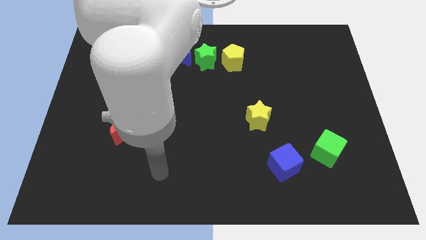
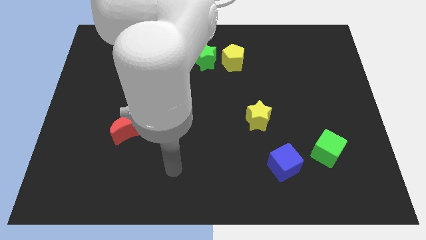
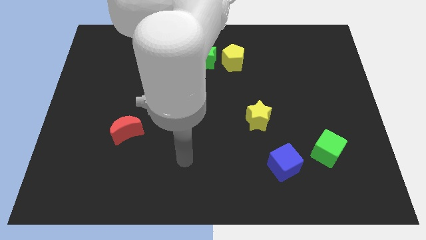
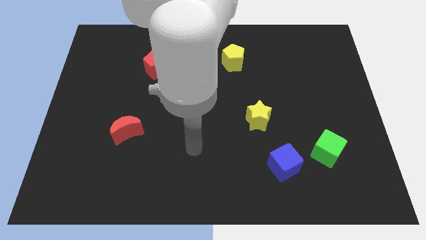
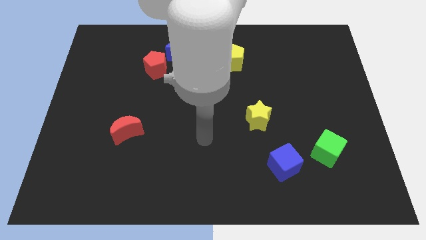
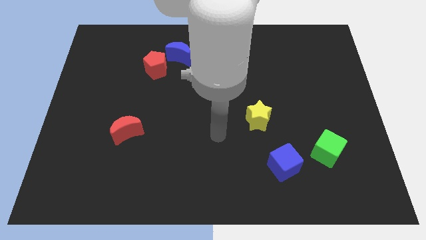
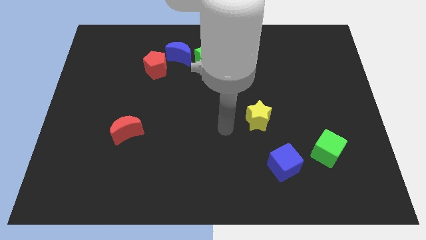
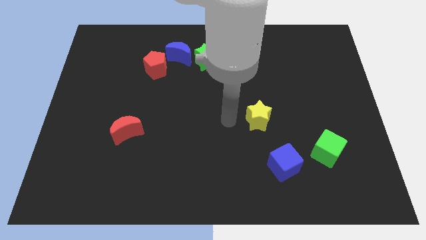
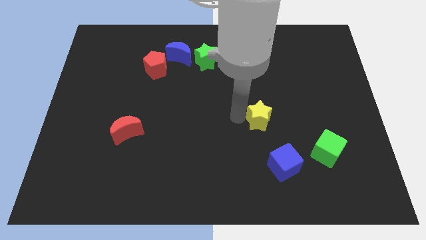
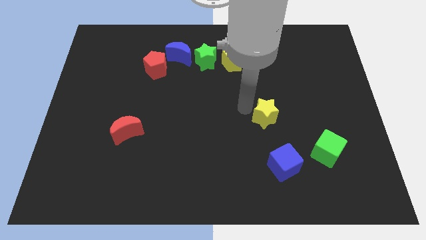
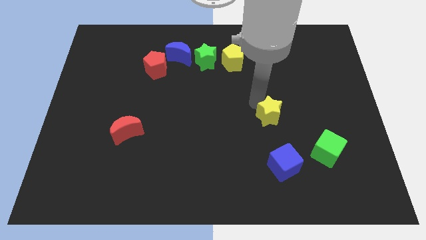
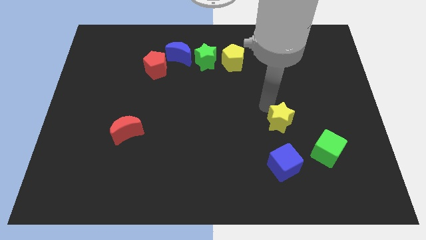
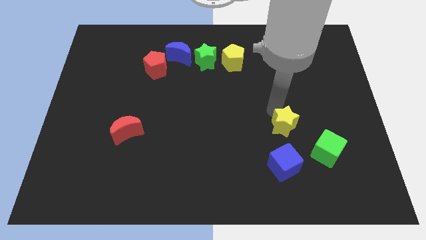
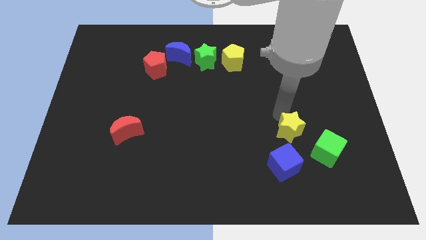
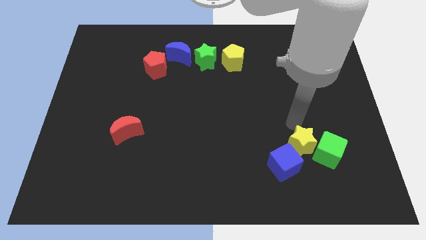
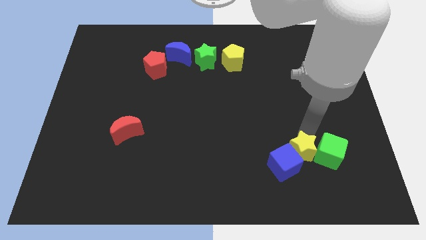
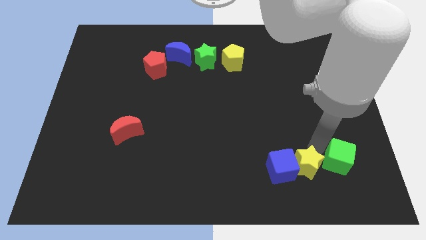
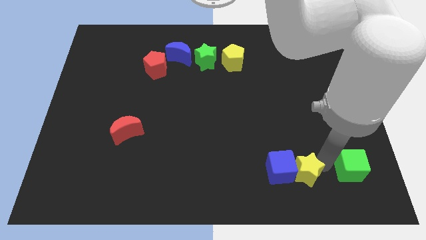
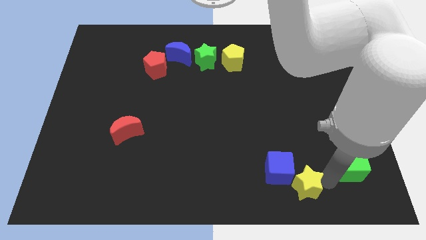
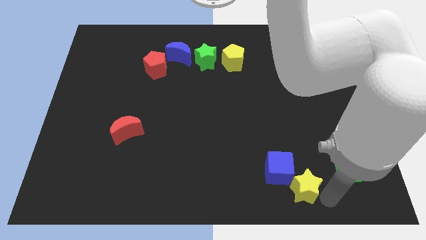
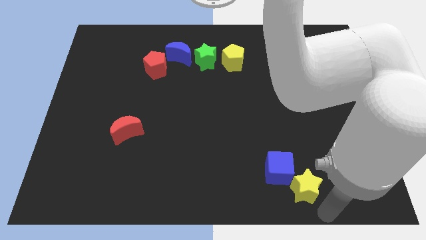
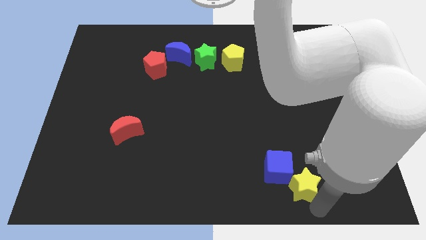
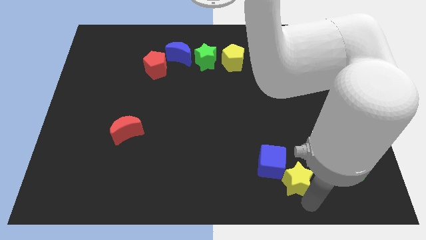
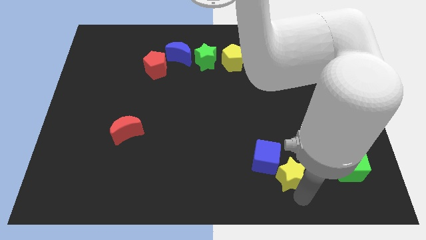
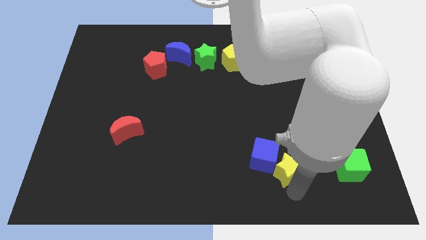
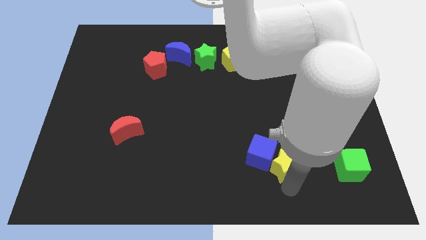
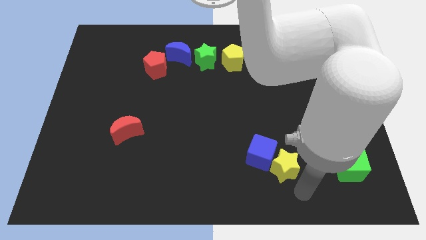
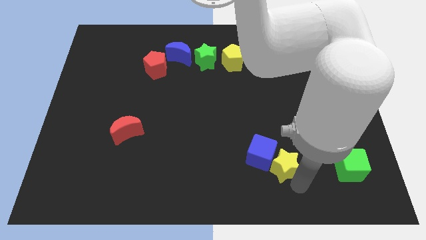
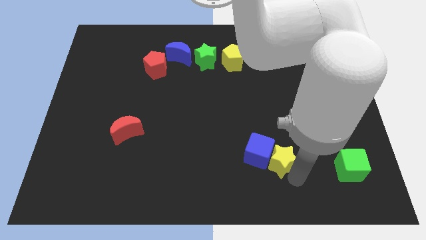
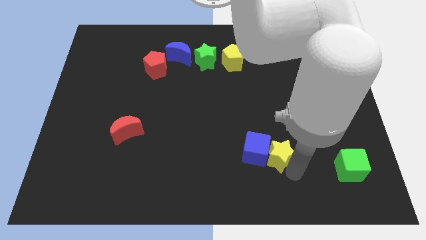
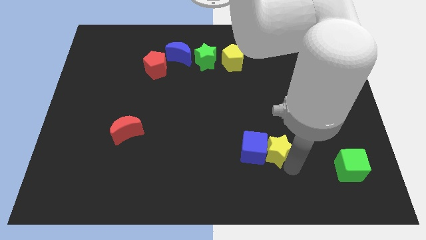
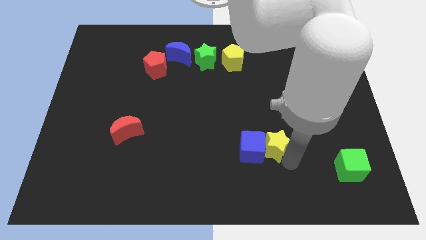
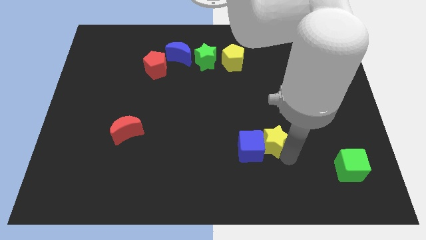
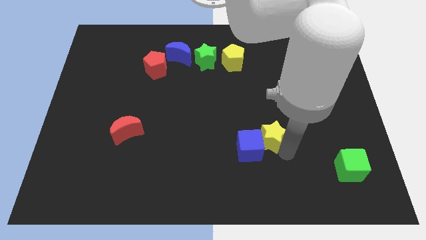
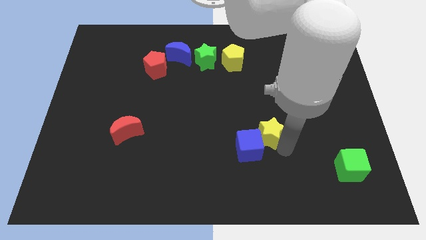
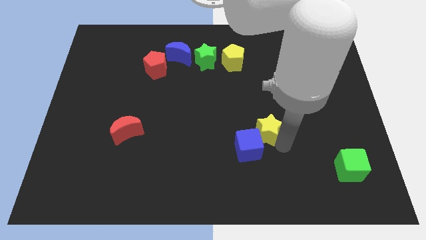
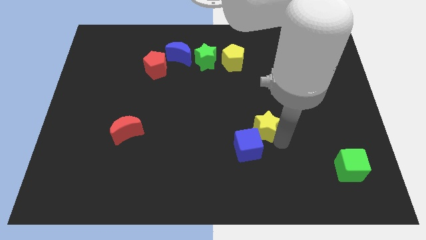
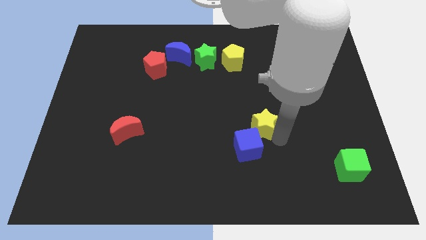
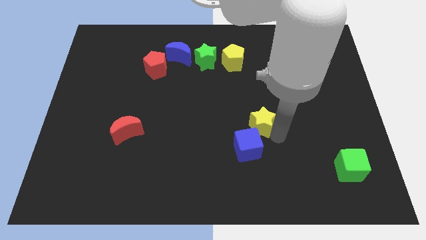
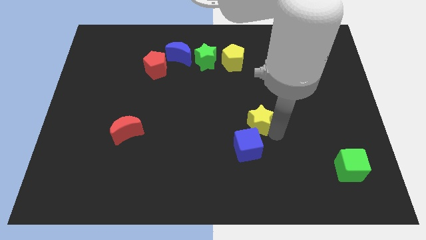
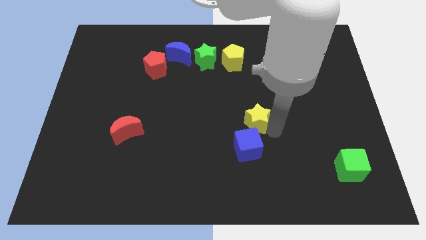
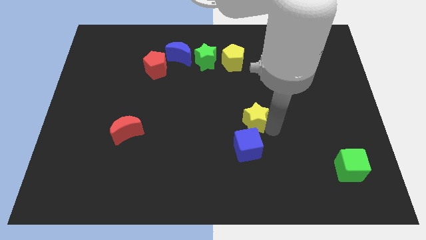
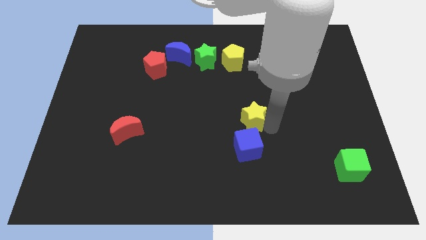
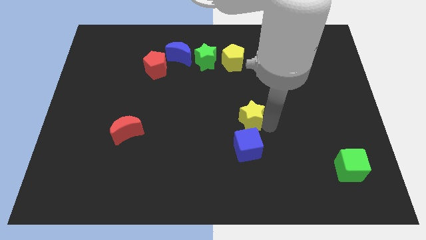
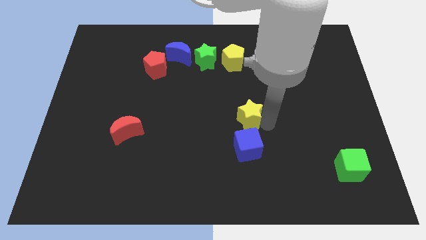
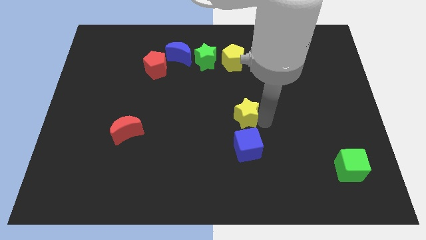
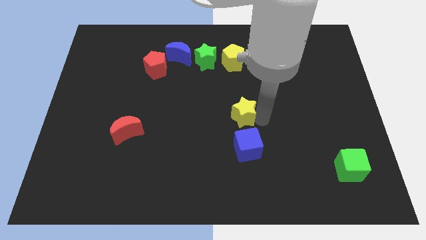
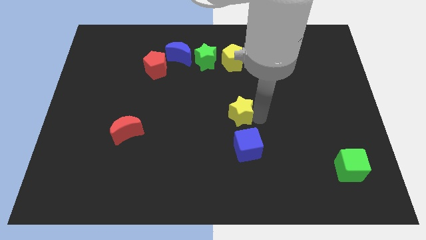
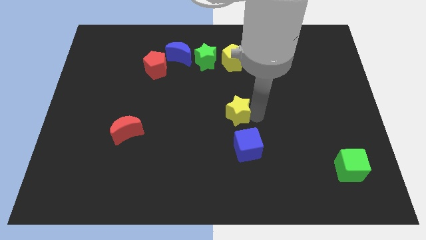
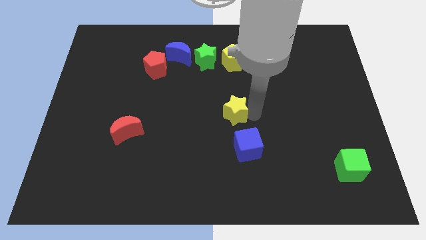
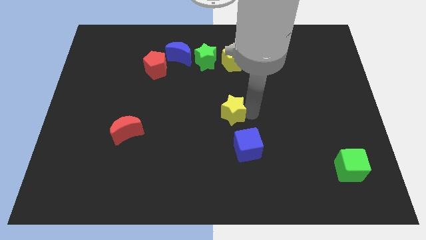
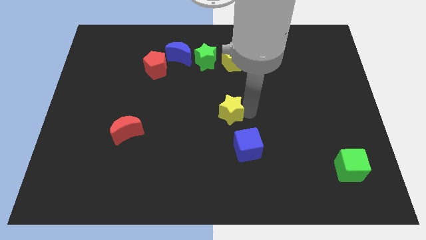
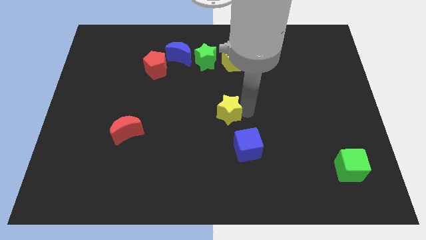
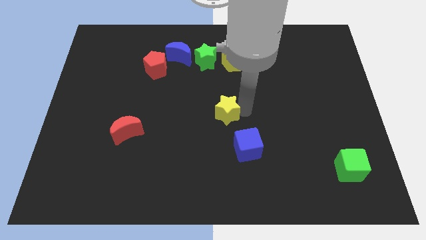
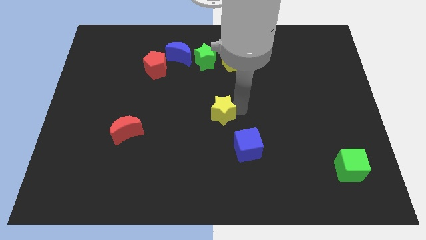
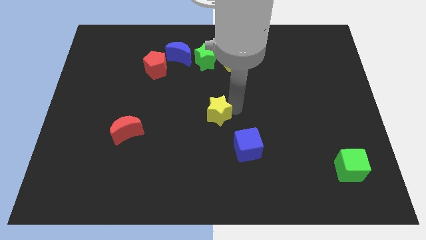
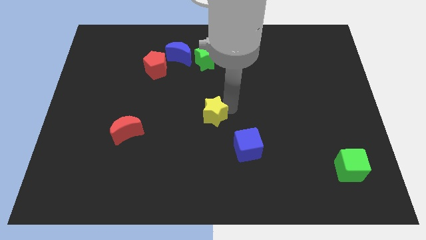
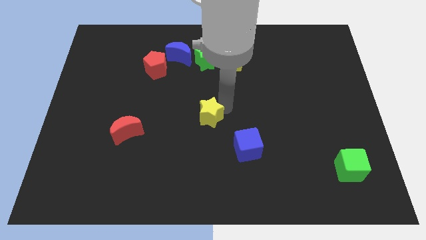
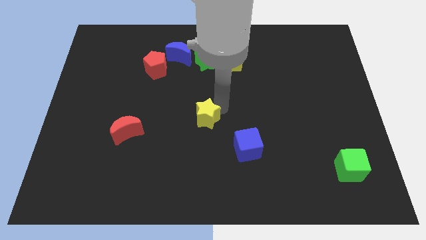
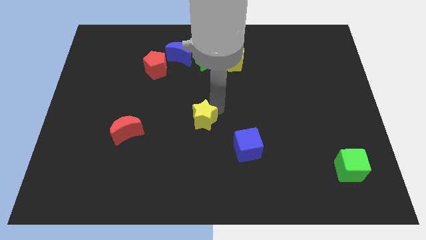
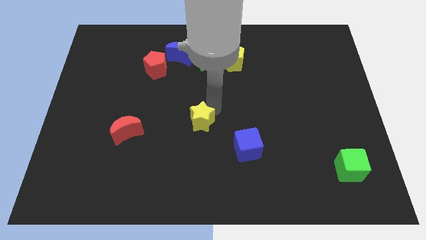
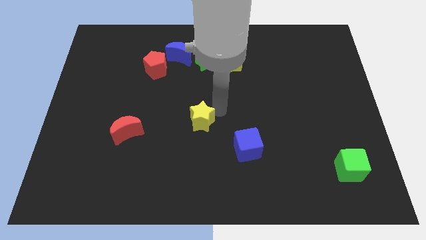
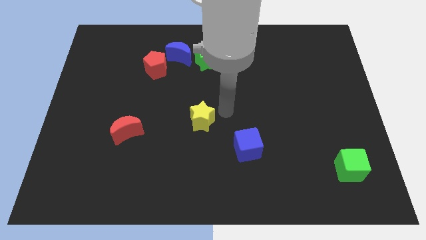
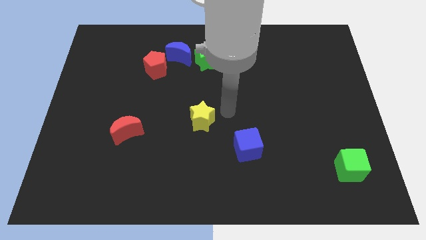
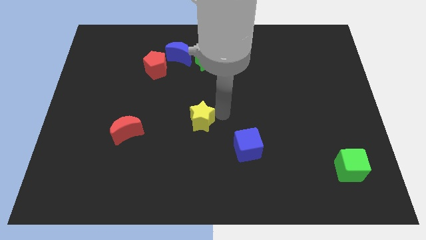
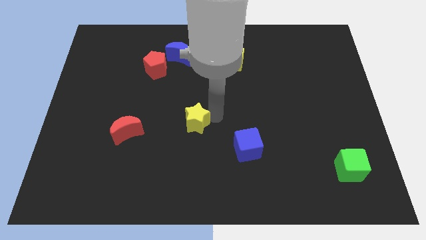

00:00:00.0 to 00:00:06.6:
push the yellow star just right of the red moon
